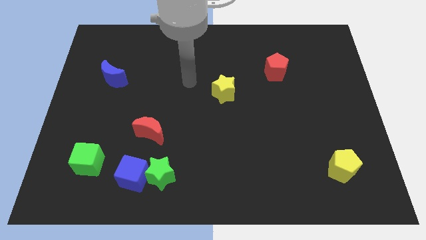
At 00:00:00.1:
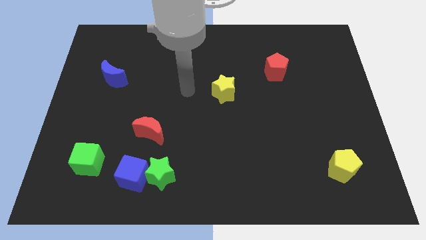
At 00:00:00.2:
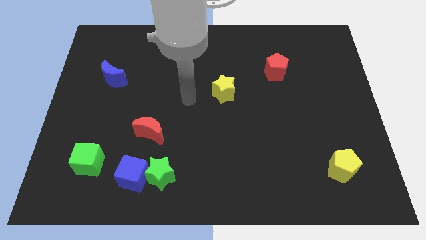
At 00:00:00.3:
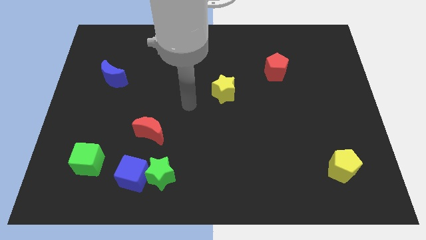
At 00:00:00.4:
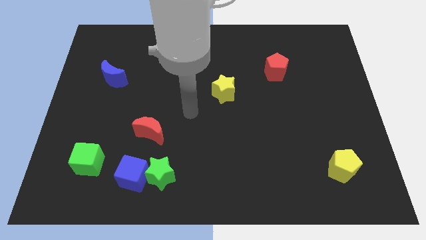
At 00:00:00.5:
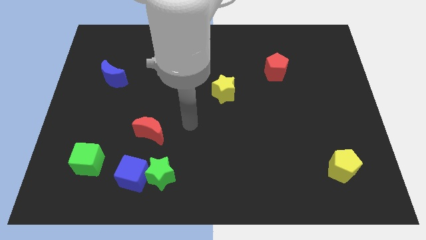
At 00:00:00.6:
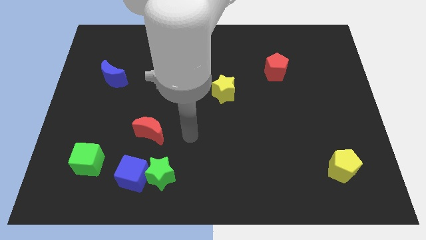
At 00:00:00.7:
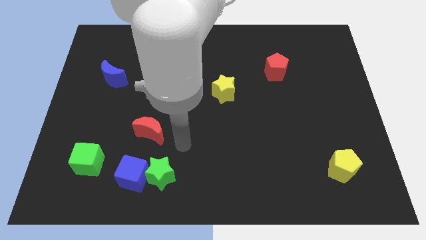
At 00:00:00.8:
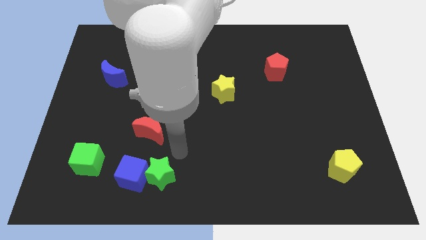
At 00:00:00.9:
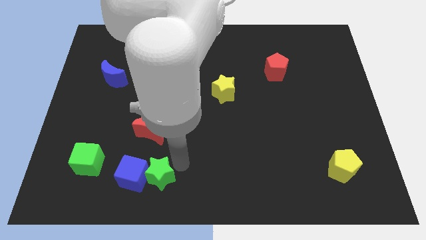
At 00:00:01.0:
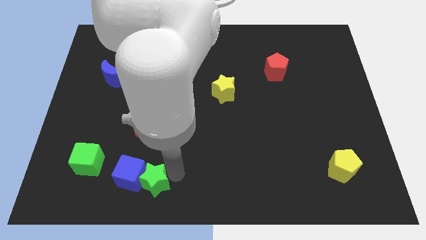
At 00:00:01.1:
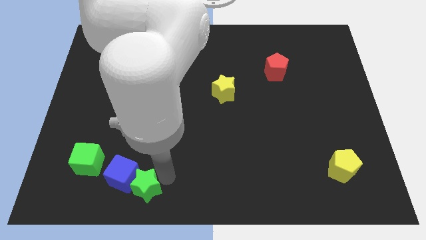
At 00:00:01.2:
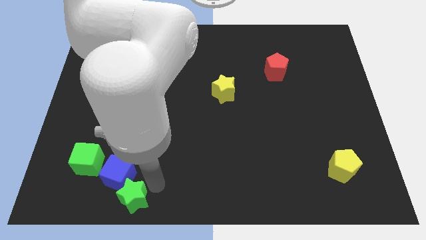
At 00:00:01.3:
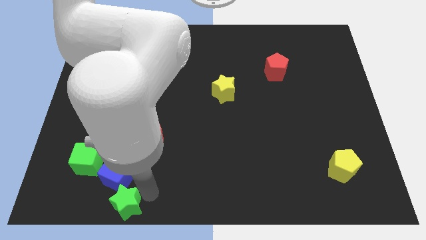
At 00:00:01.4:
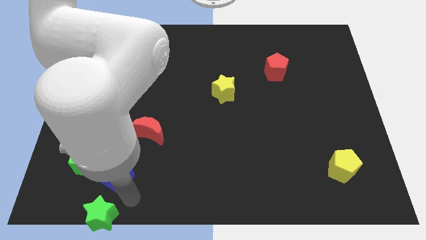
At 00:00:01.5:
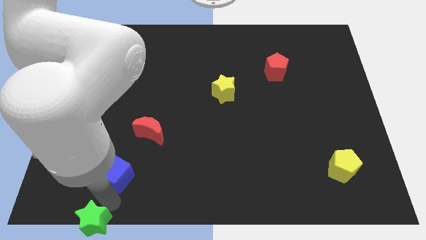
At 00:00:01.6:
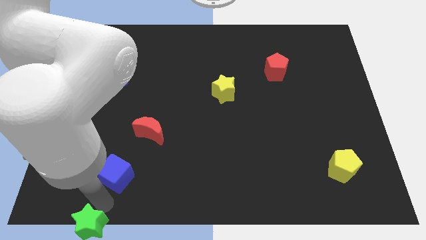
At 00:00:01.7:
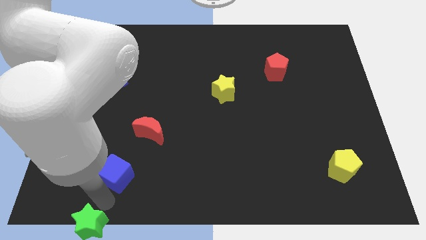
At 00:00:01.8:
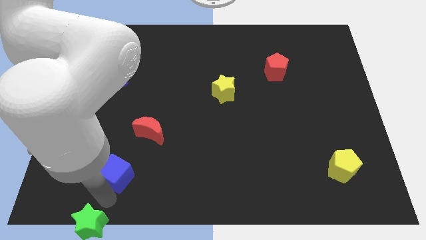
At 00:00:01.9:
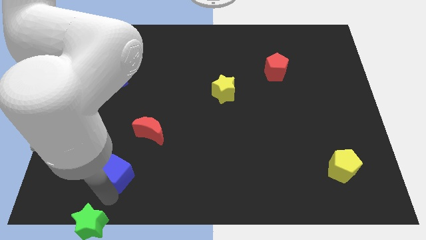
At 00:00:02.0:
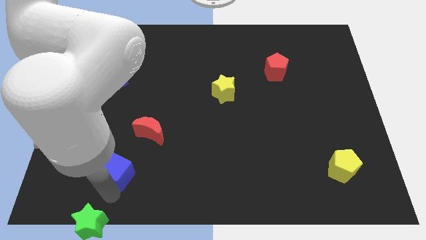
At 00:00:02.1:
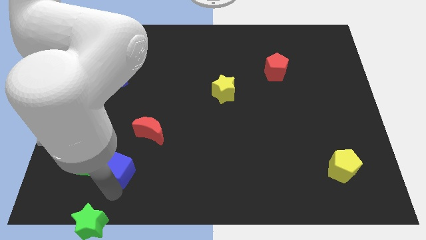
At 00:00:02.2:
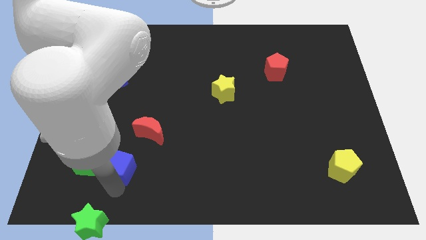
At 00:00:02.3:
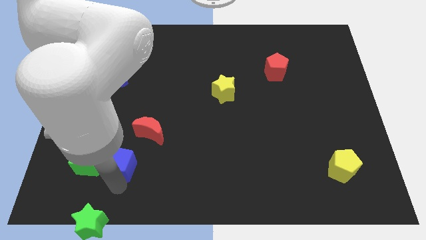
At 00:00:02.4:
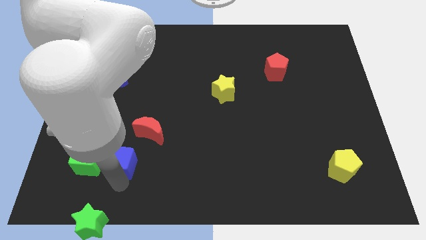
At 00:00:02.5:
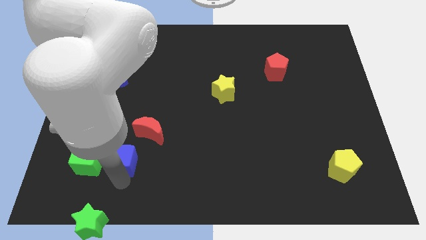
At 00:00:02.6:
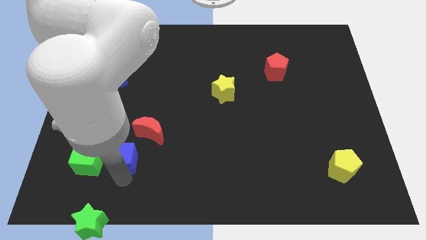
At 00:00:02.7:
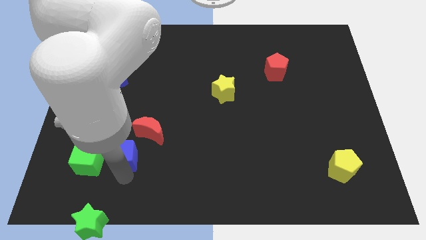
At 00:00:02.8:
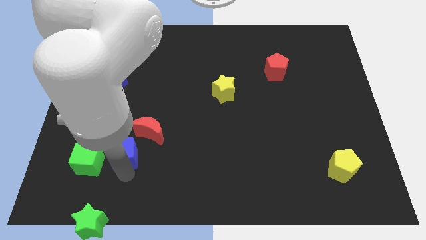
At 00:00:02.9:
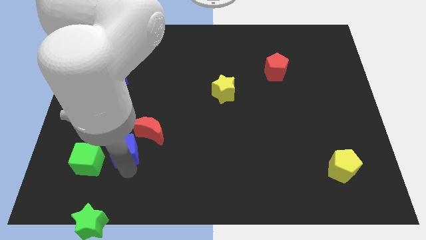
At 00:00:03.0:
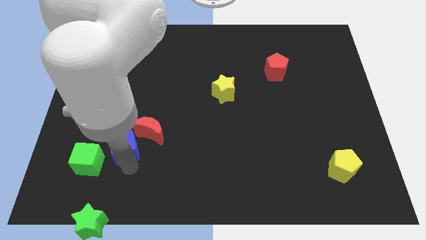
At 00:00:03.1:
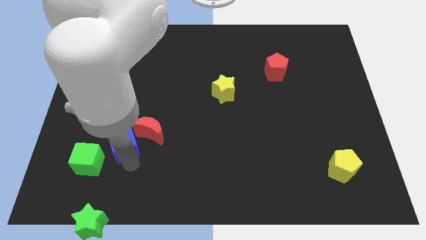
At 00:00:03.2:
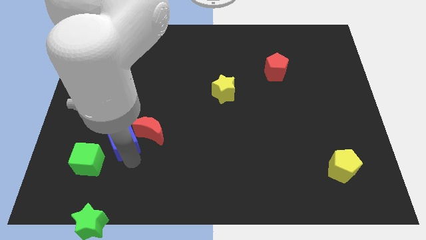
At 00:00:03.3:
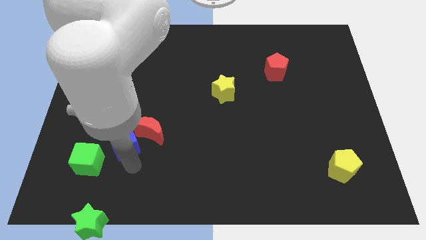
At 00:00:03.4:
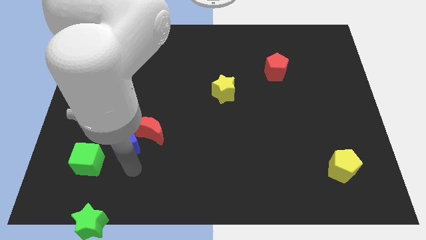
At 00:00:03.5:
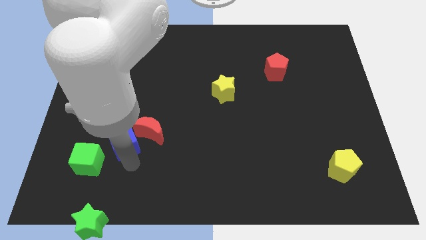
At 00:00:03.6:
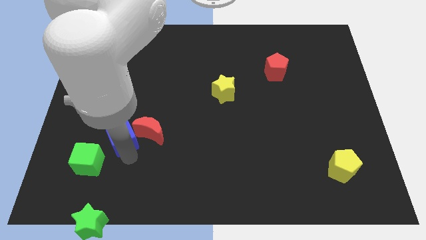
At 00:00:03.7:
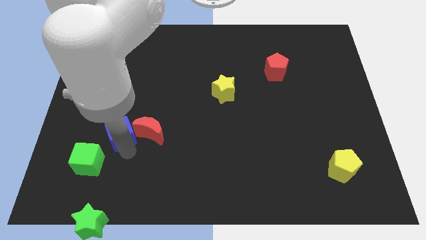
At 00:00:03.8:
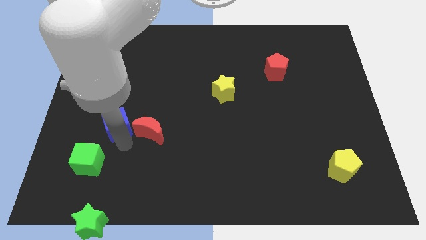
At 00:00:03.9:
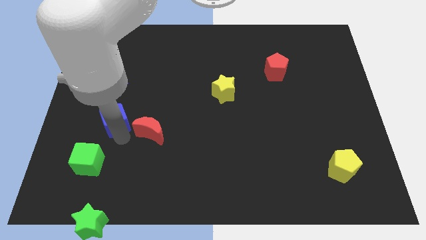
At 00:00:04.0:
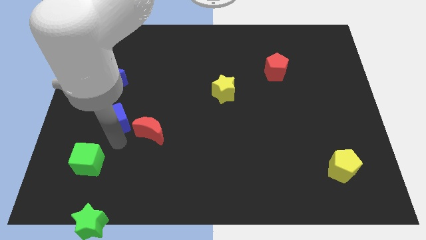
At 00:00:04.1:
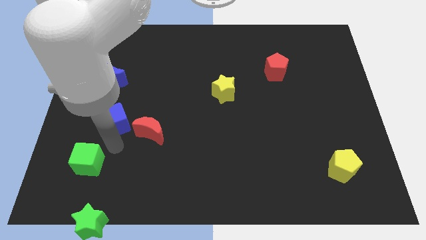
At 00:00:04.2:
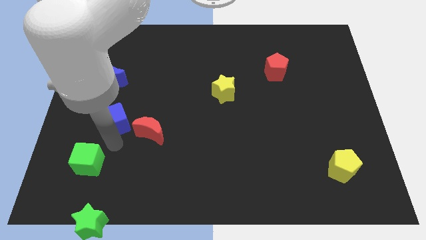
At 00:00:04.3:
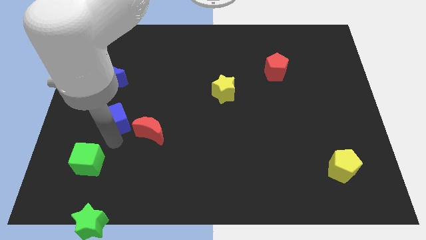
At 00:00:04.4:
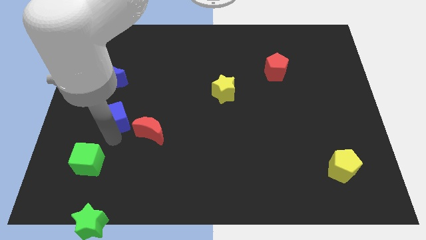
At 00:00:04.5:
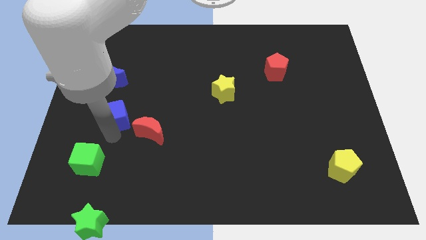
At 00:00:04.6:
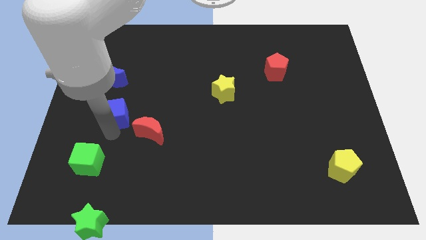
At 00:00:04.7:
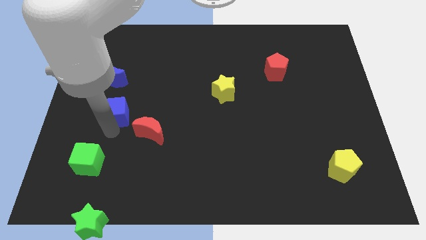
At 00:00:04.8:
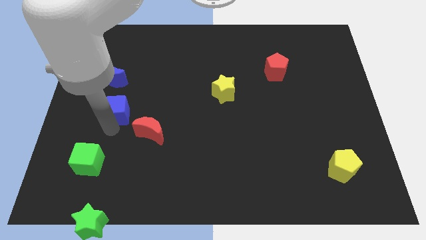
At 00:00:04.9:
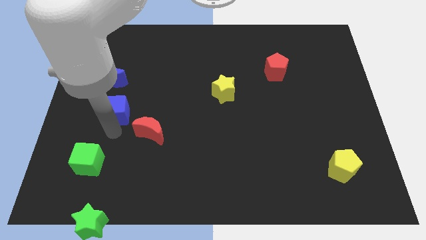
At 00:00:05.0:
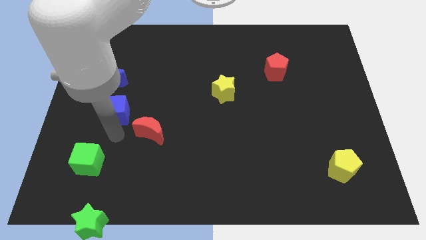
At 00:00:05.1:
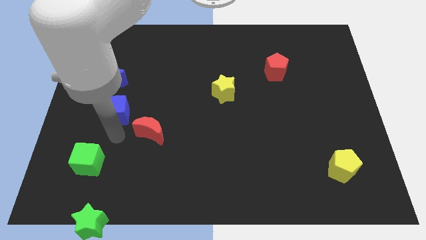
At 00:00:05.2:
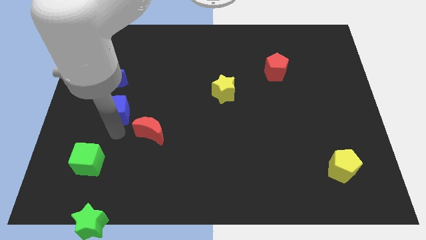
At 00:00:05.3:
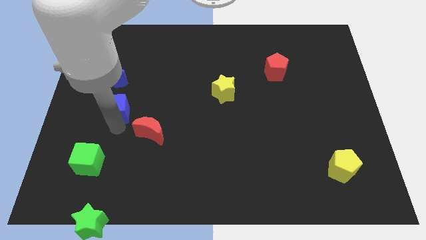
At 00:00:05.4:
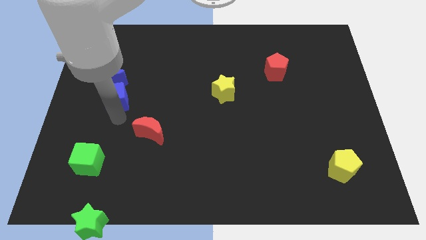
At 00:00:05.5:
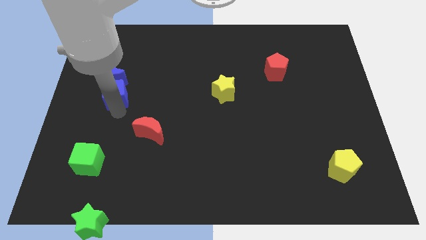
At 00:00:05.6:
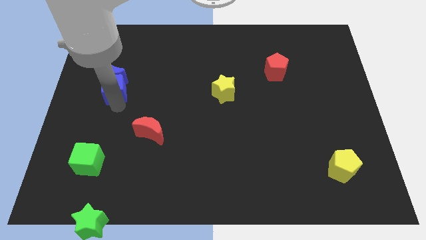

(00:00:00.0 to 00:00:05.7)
put the blue cube to the blue moon

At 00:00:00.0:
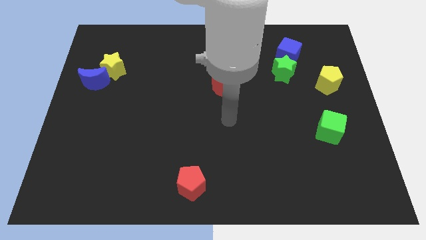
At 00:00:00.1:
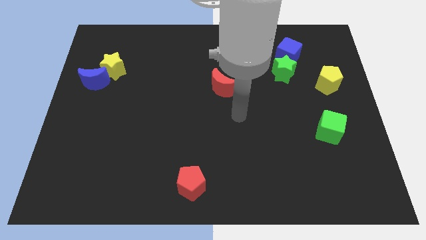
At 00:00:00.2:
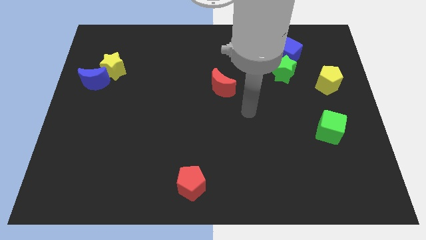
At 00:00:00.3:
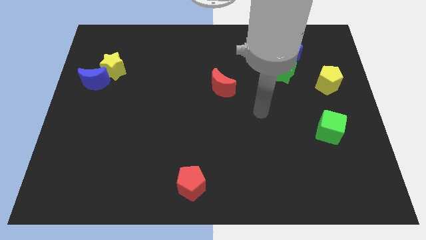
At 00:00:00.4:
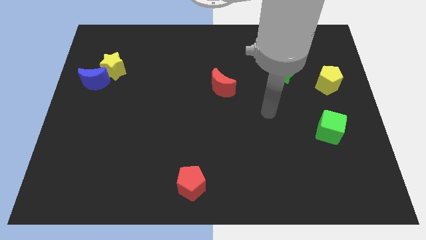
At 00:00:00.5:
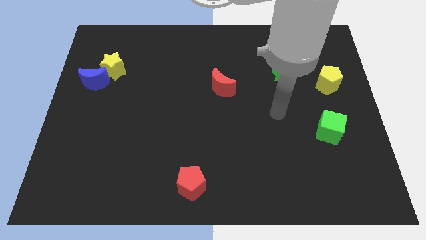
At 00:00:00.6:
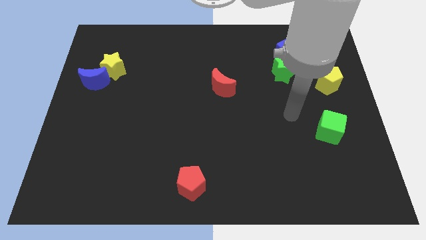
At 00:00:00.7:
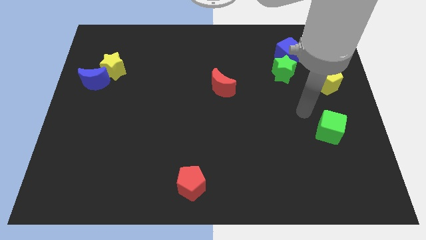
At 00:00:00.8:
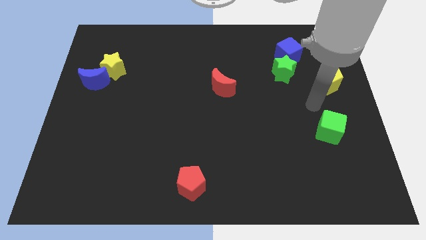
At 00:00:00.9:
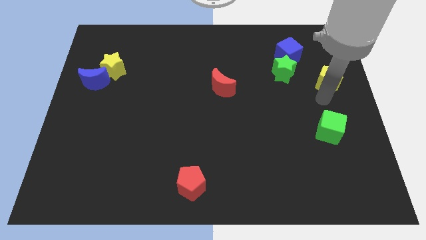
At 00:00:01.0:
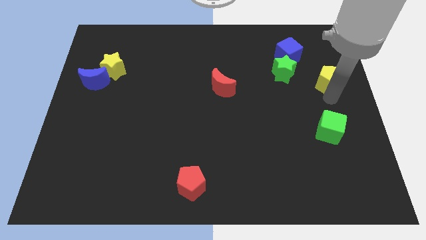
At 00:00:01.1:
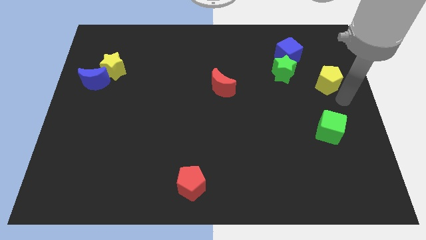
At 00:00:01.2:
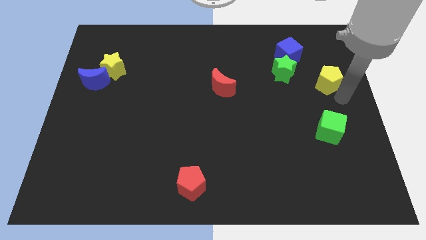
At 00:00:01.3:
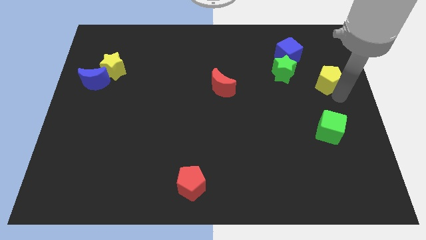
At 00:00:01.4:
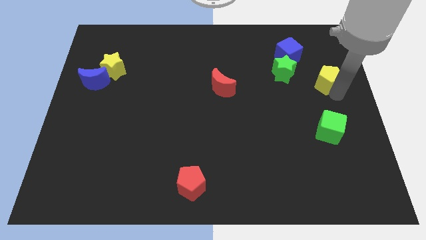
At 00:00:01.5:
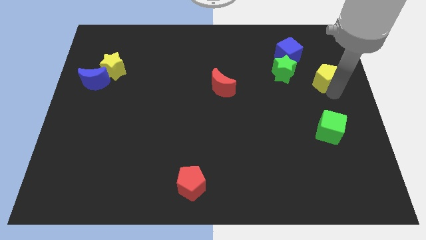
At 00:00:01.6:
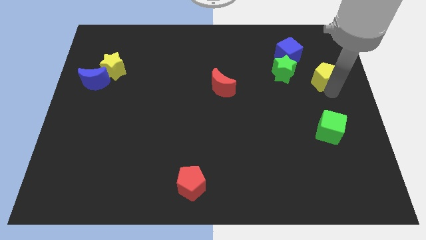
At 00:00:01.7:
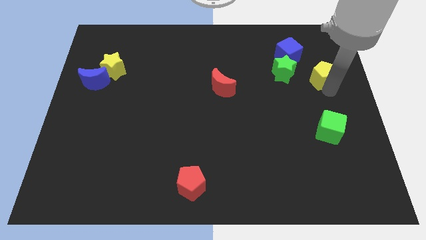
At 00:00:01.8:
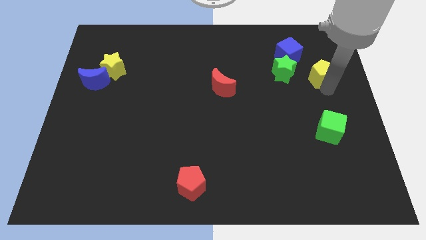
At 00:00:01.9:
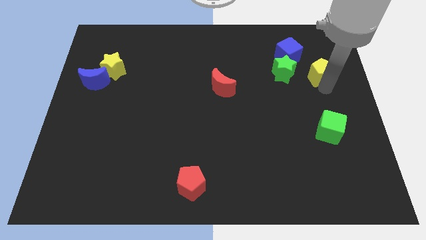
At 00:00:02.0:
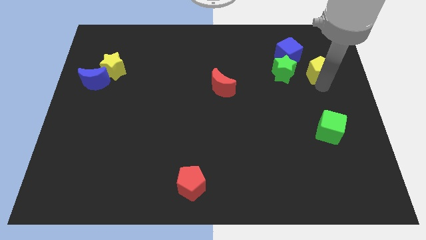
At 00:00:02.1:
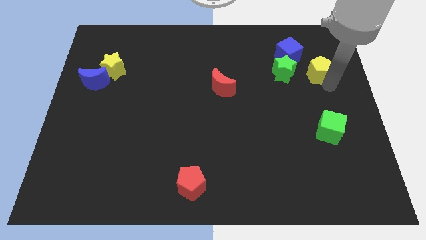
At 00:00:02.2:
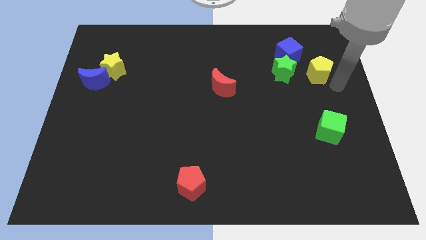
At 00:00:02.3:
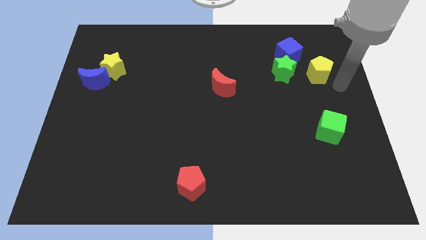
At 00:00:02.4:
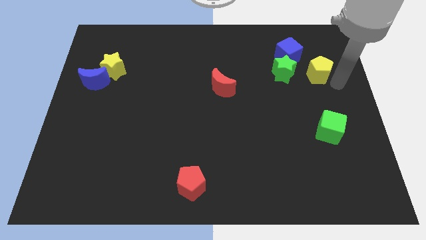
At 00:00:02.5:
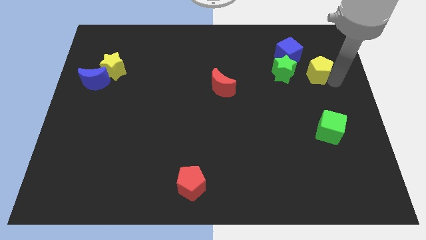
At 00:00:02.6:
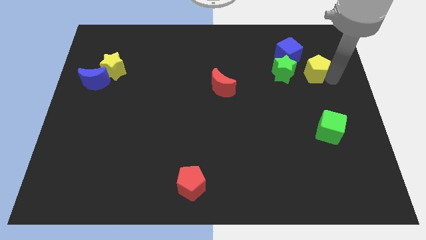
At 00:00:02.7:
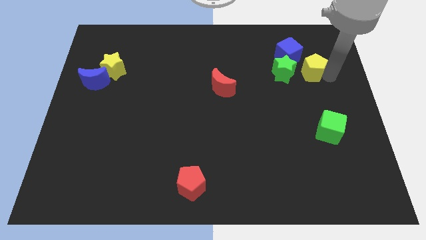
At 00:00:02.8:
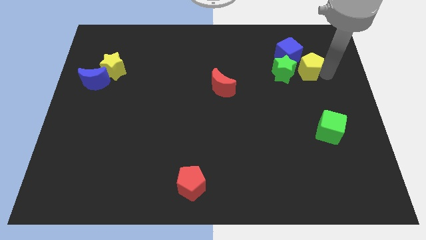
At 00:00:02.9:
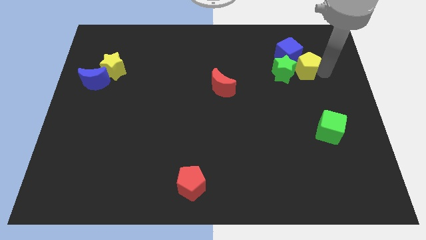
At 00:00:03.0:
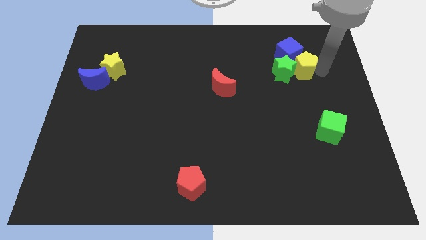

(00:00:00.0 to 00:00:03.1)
push the yellow pentagon next to the blue cube
